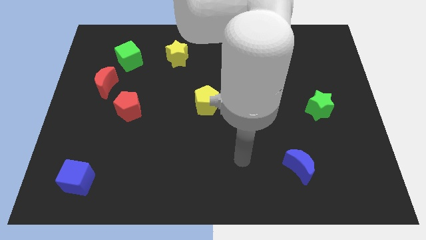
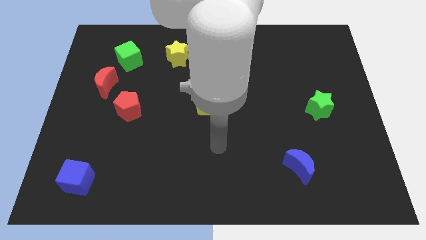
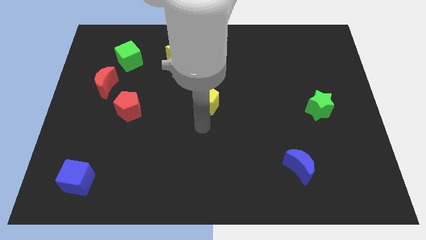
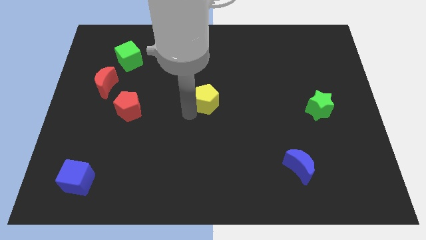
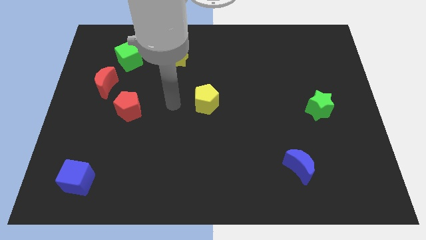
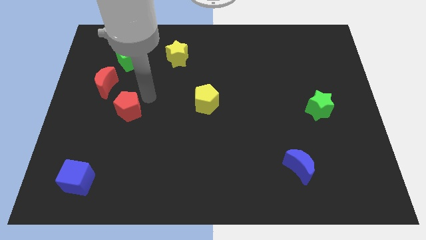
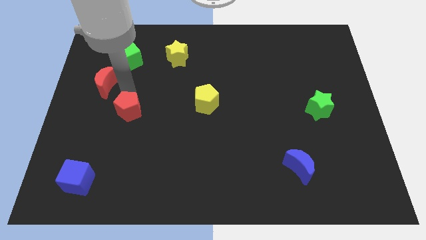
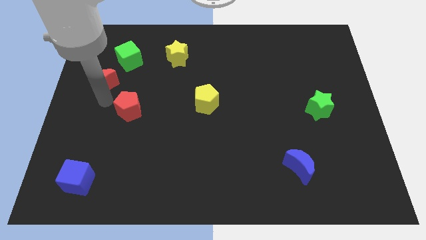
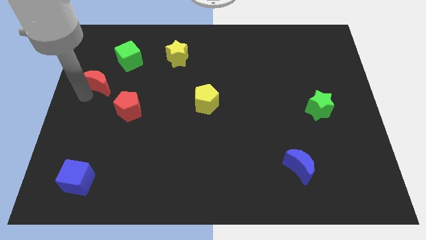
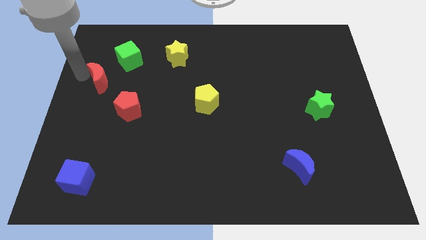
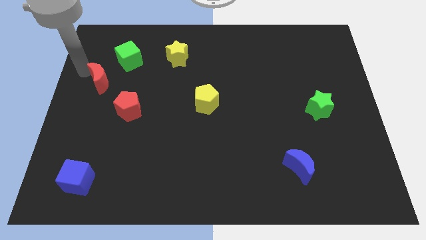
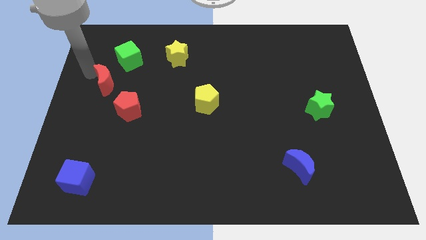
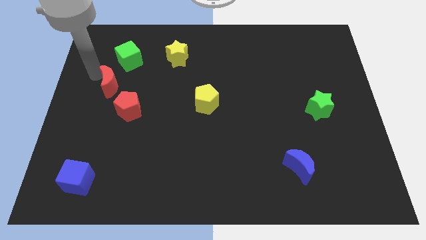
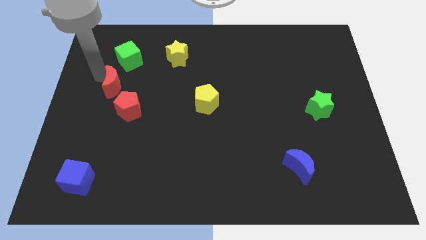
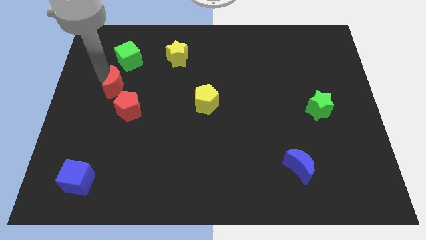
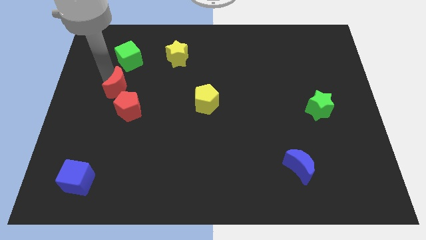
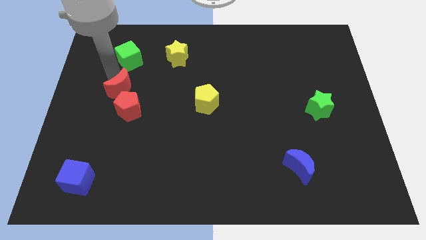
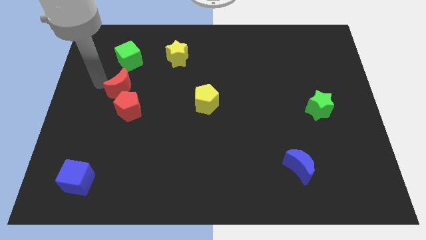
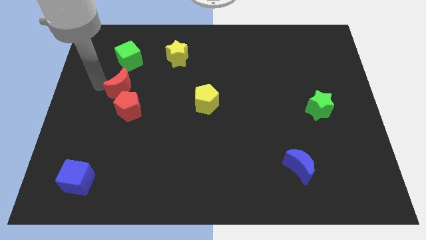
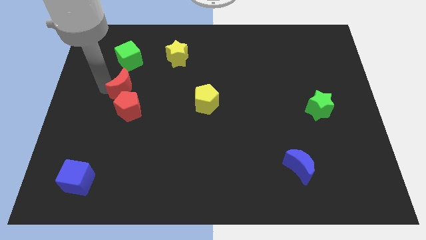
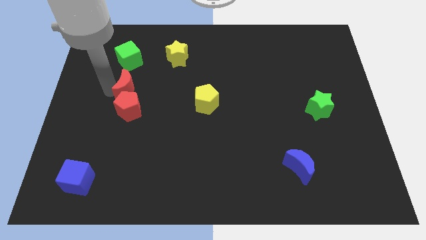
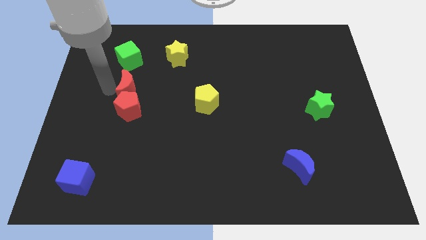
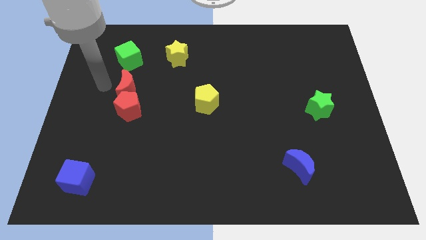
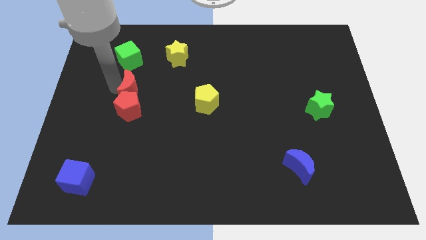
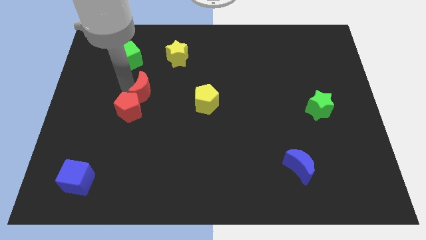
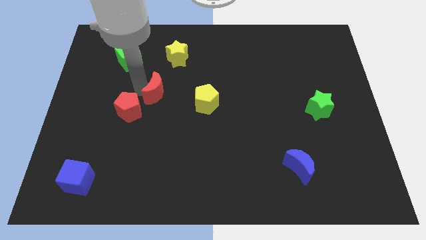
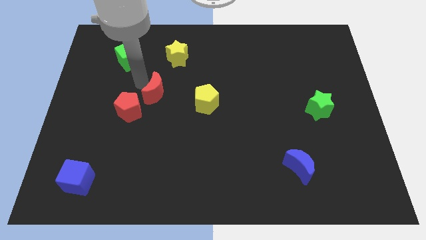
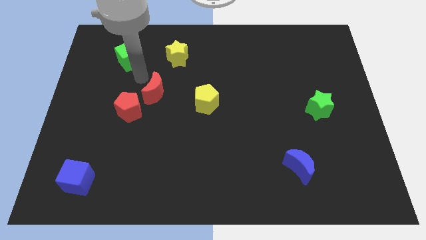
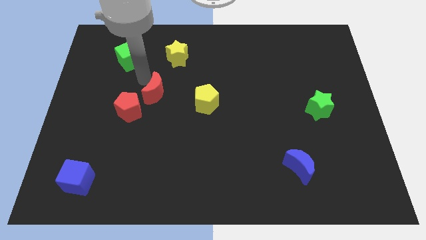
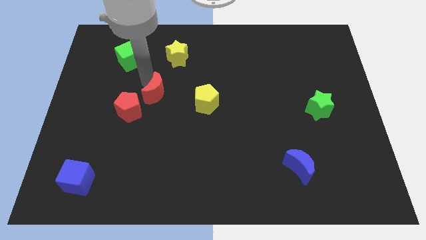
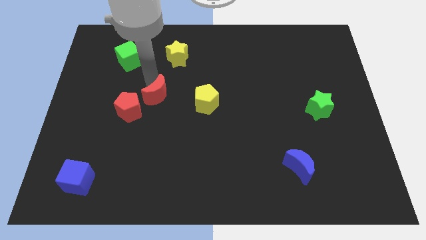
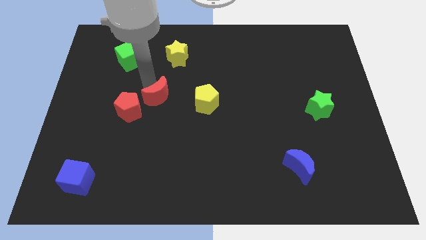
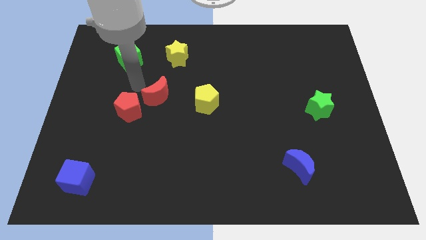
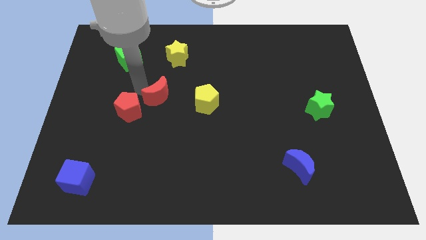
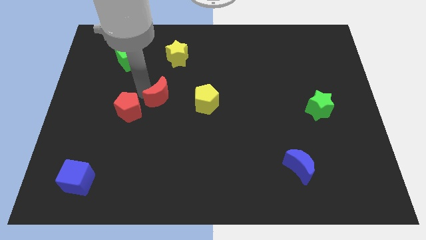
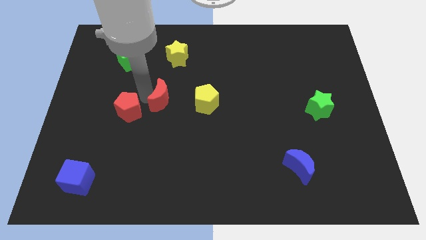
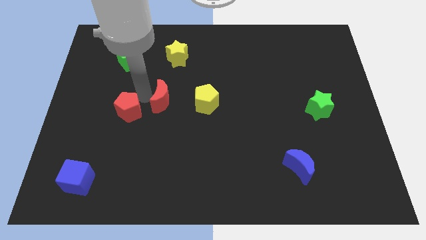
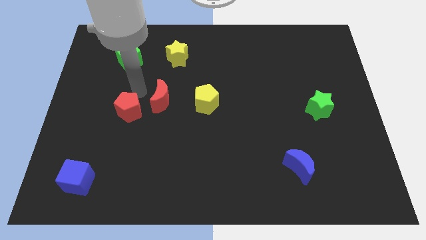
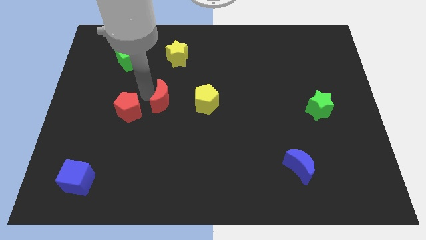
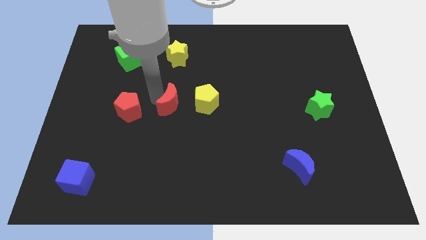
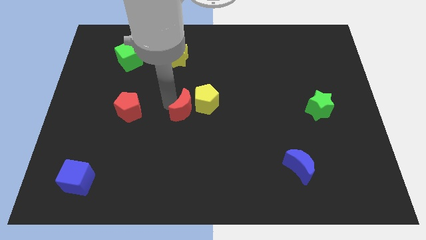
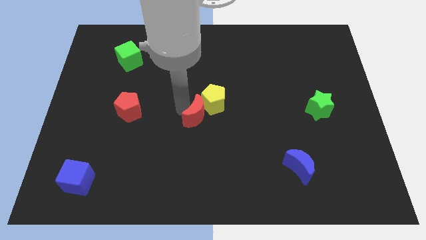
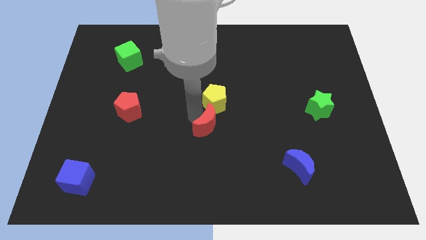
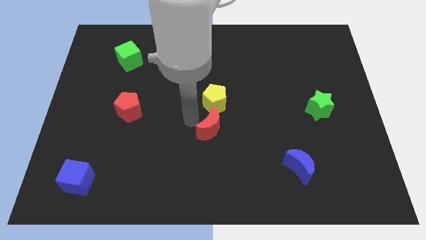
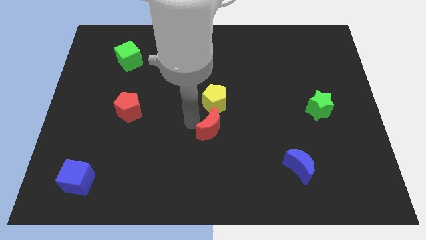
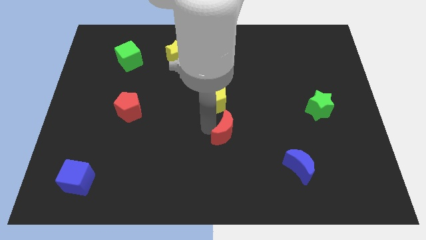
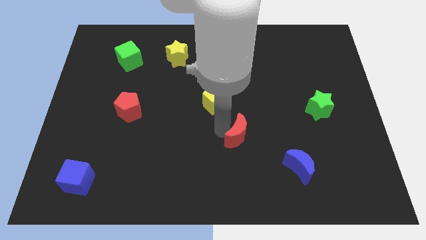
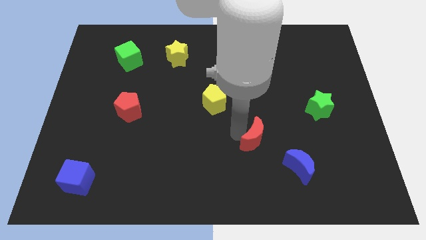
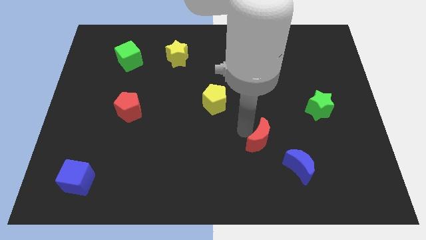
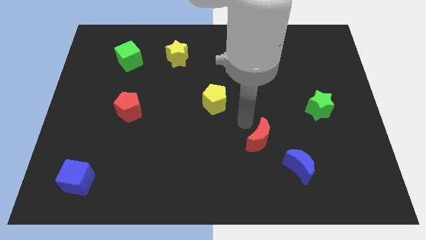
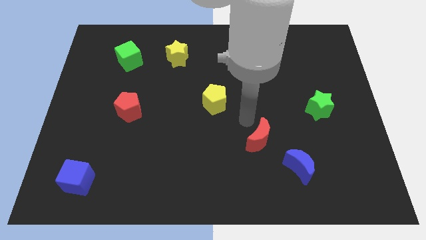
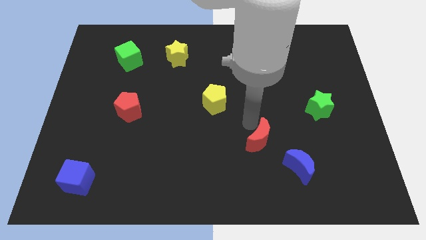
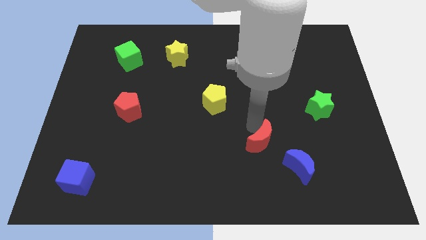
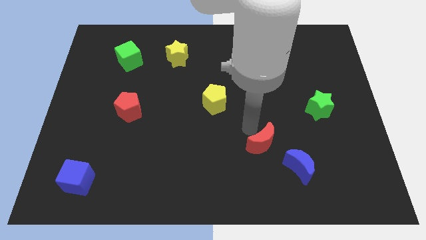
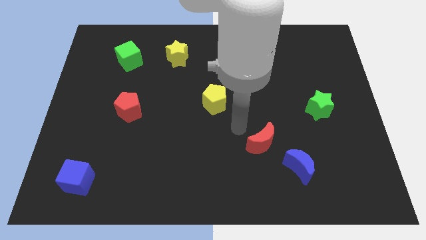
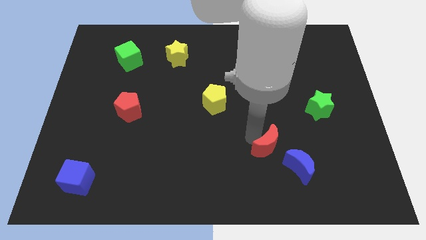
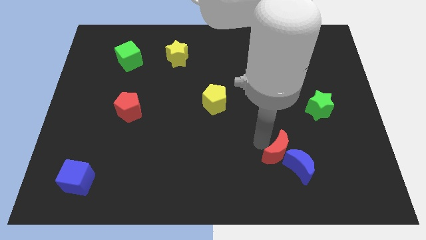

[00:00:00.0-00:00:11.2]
put the red moon next to the blue moon
